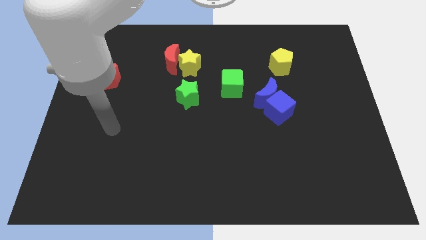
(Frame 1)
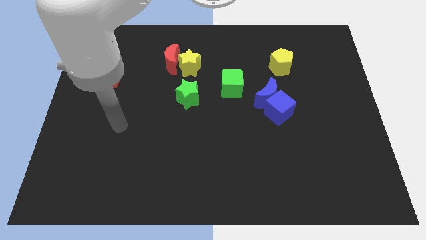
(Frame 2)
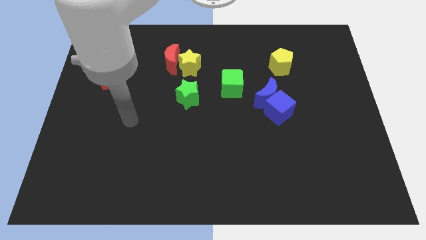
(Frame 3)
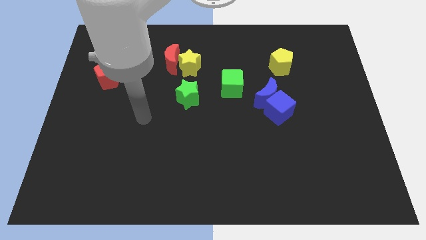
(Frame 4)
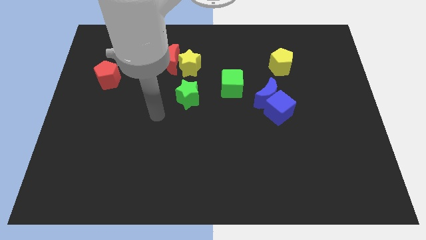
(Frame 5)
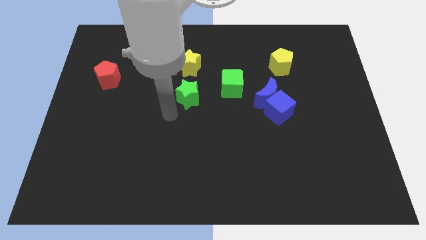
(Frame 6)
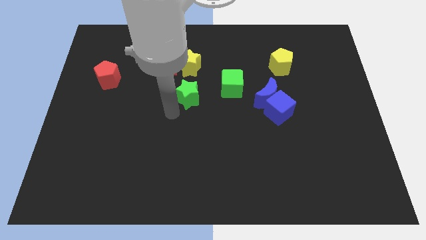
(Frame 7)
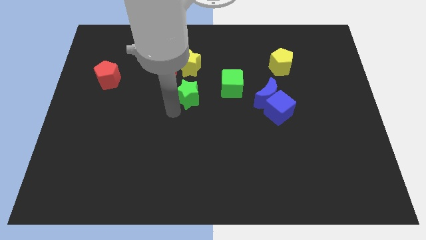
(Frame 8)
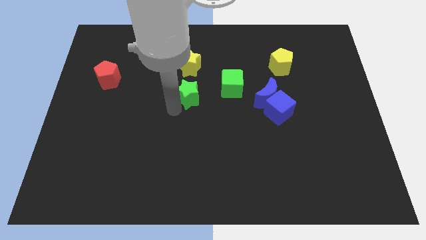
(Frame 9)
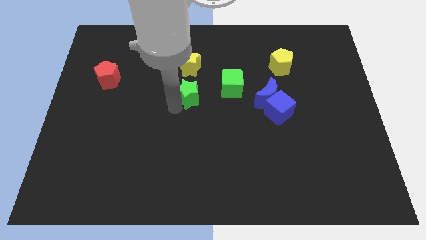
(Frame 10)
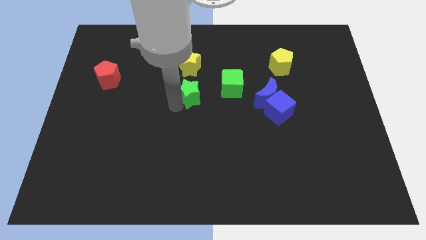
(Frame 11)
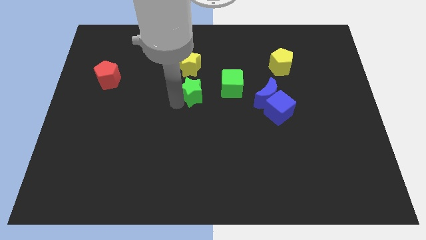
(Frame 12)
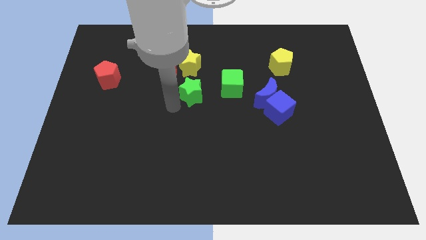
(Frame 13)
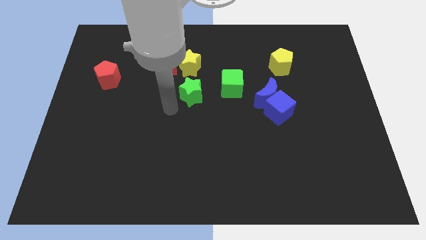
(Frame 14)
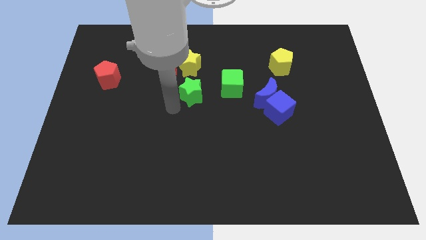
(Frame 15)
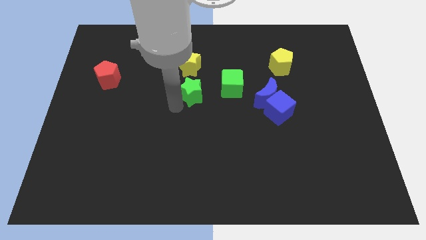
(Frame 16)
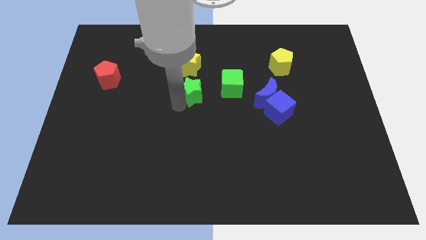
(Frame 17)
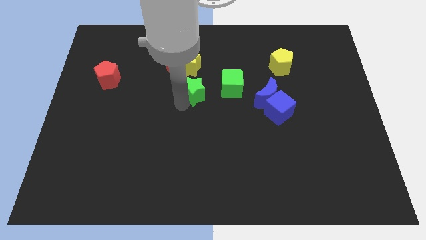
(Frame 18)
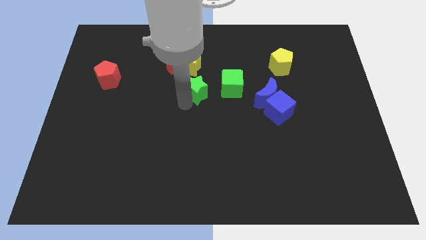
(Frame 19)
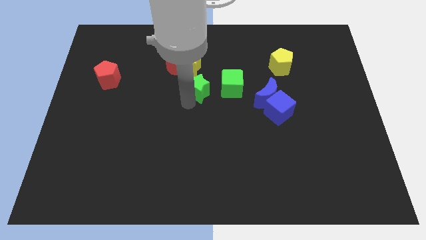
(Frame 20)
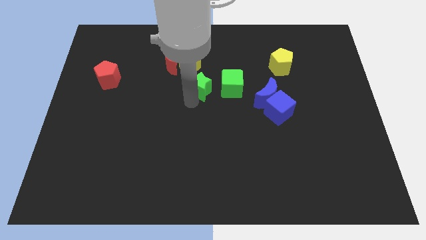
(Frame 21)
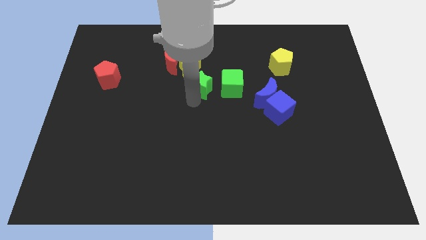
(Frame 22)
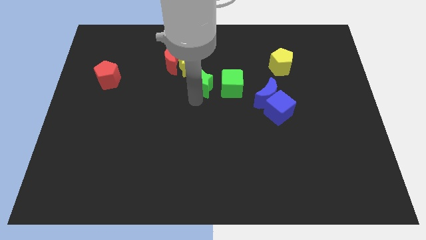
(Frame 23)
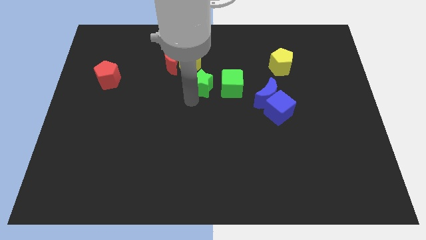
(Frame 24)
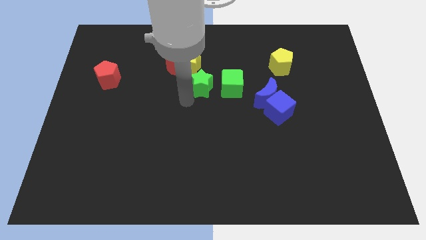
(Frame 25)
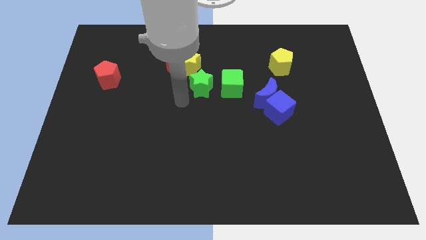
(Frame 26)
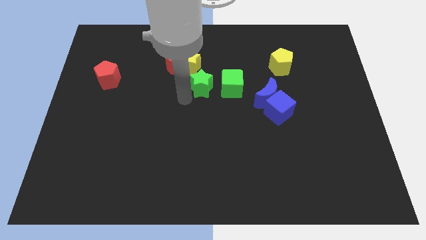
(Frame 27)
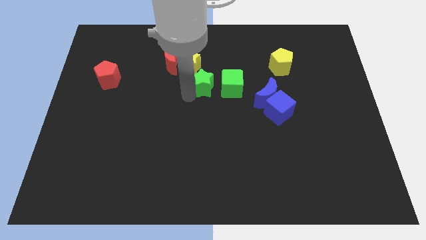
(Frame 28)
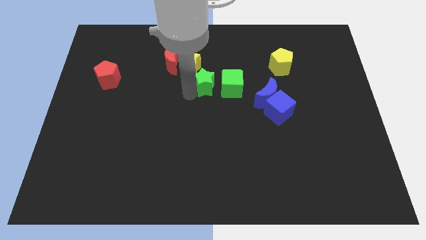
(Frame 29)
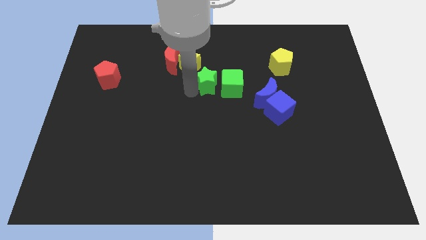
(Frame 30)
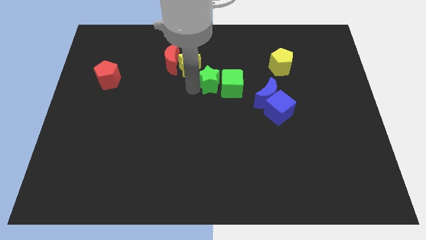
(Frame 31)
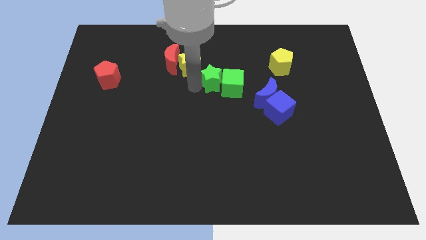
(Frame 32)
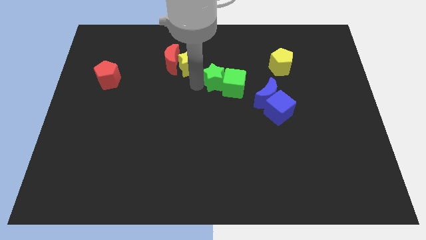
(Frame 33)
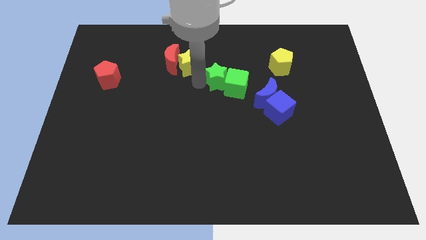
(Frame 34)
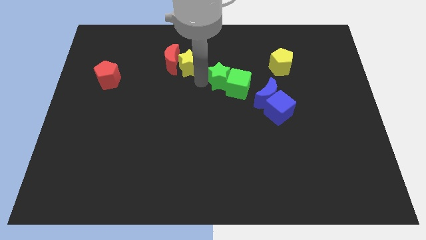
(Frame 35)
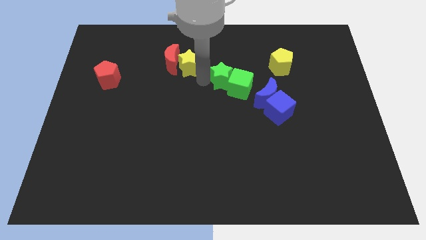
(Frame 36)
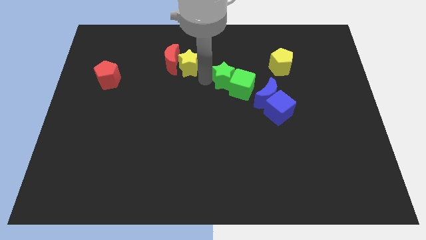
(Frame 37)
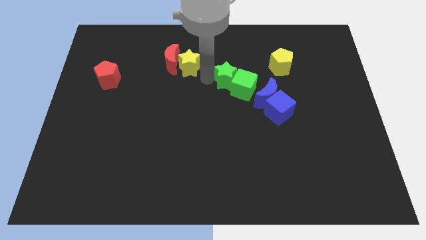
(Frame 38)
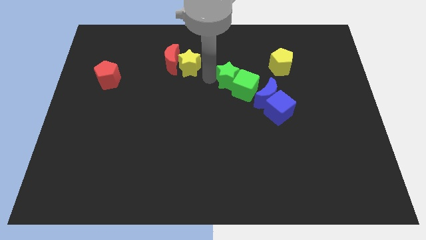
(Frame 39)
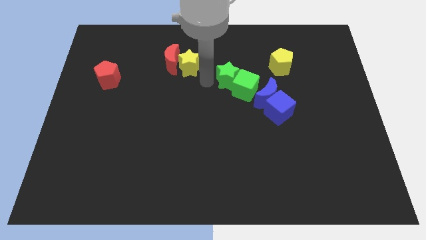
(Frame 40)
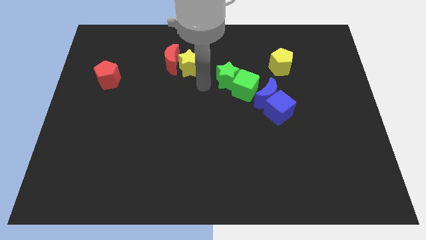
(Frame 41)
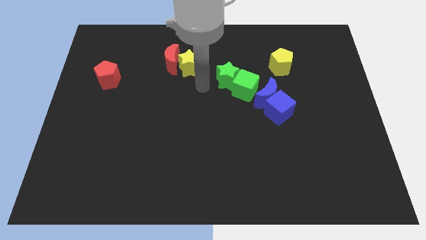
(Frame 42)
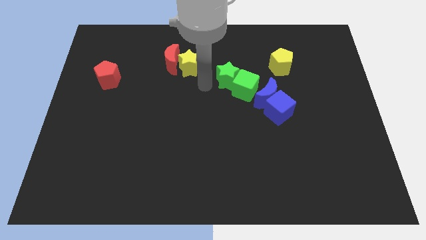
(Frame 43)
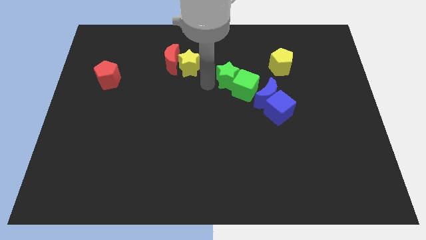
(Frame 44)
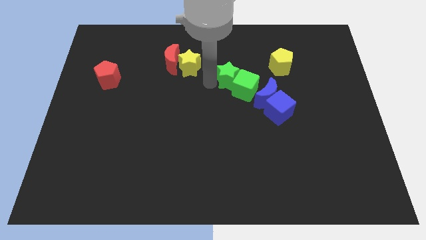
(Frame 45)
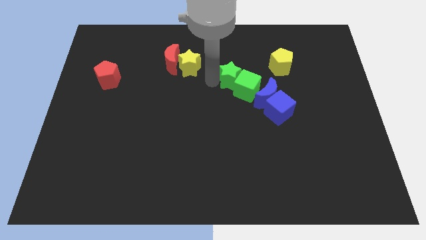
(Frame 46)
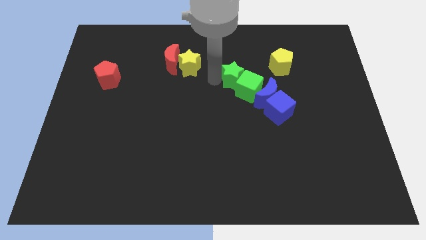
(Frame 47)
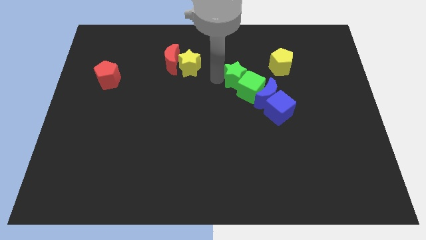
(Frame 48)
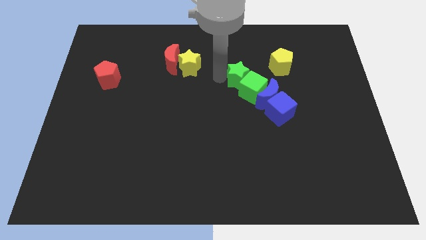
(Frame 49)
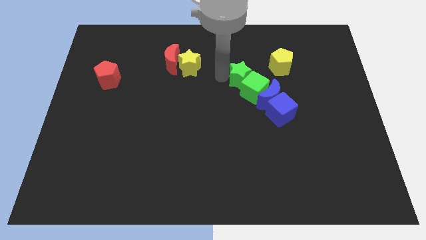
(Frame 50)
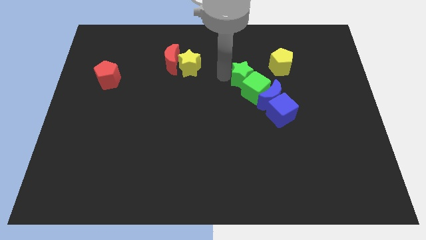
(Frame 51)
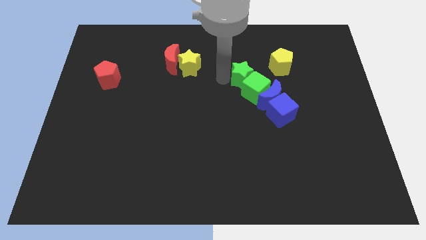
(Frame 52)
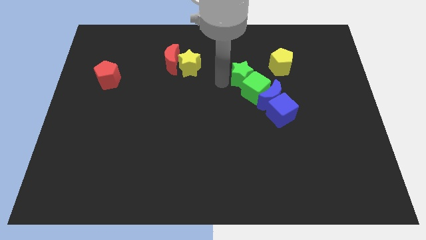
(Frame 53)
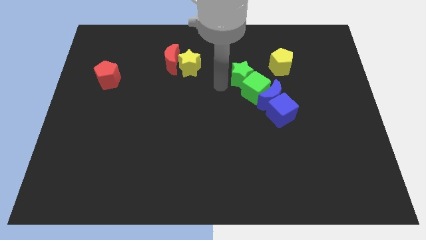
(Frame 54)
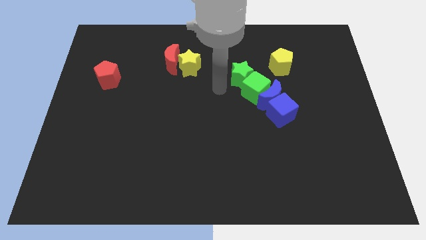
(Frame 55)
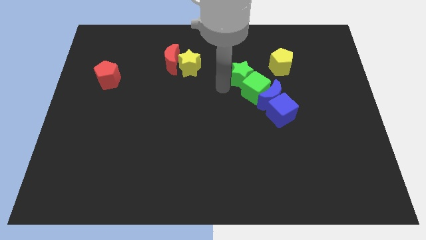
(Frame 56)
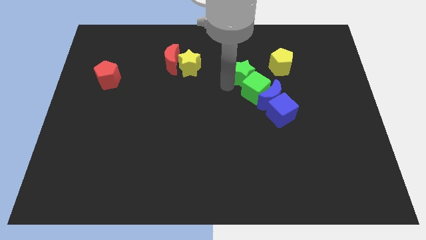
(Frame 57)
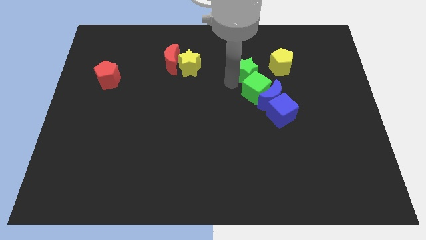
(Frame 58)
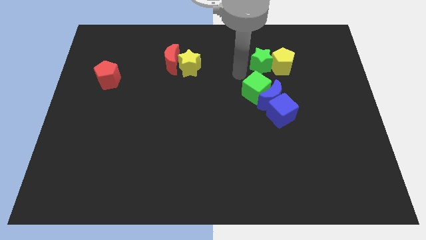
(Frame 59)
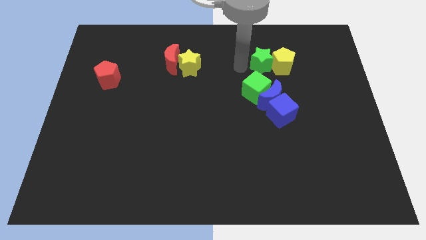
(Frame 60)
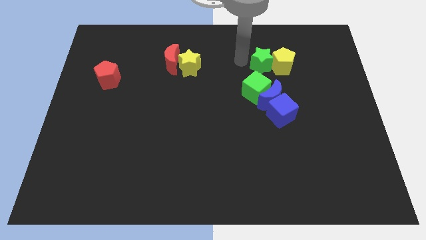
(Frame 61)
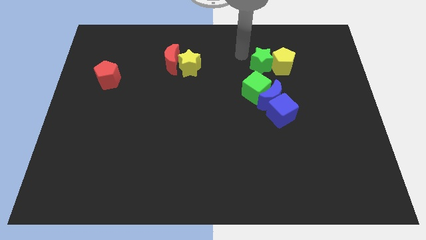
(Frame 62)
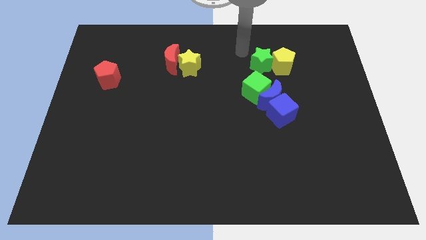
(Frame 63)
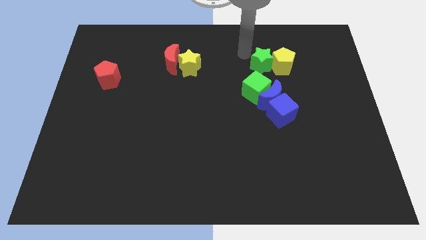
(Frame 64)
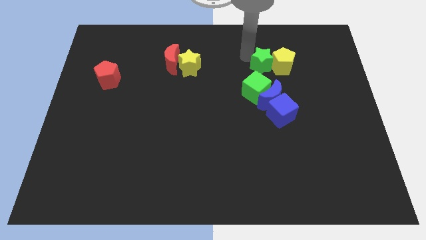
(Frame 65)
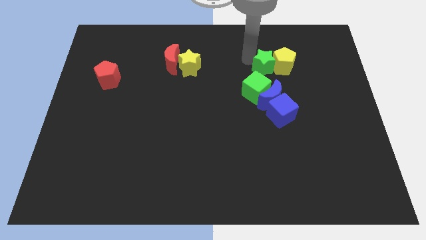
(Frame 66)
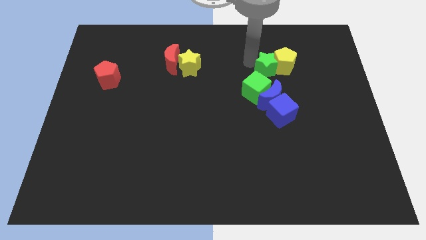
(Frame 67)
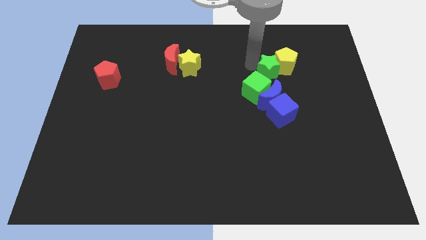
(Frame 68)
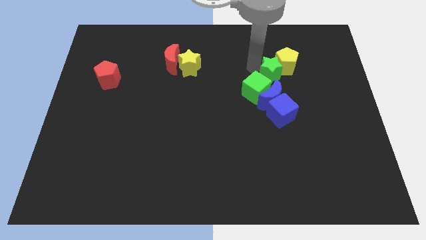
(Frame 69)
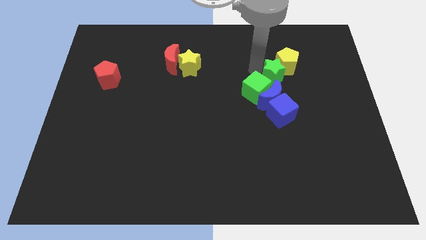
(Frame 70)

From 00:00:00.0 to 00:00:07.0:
move the green star just right of the green cube

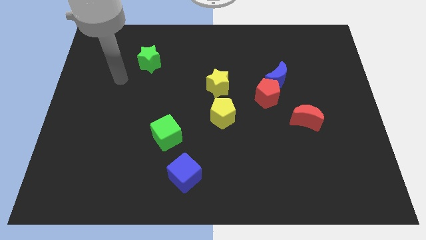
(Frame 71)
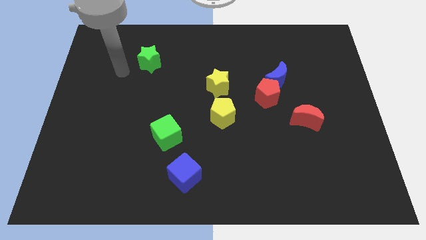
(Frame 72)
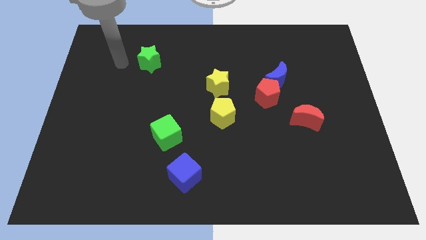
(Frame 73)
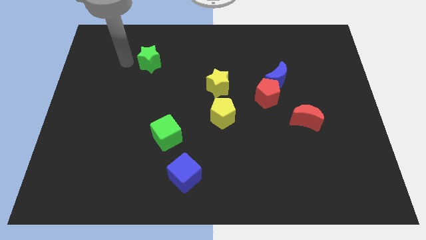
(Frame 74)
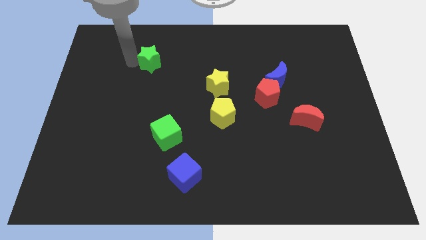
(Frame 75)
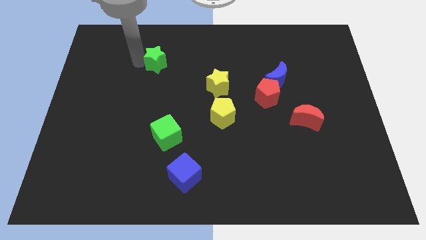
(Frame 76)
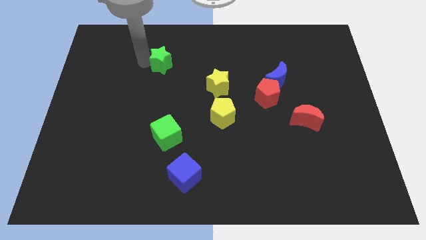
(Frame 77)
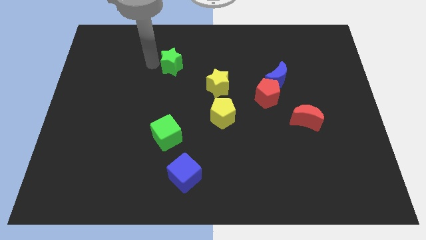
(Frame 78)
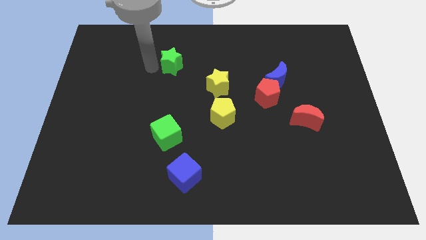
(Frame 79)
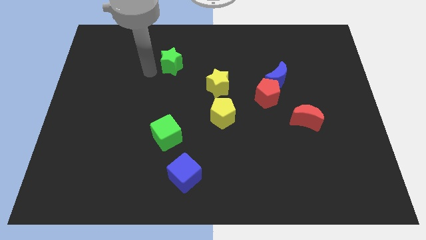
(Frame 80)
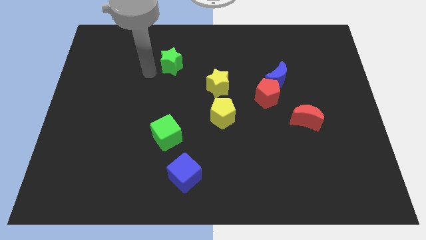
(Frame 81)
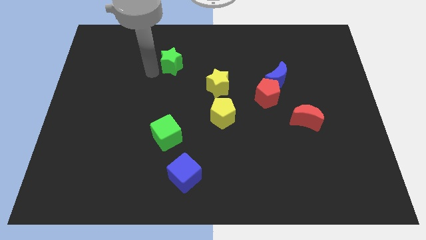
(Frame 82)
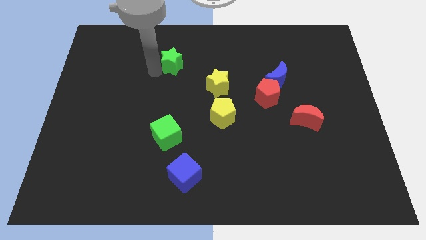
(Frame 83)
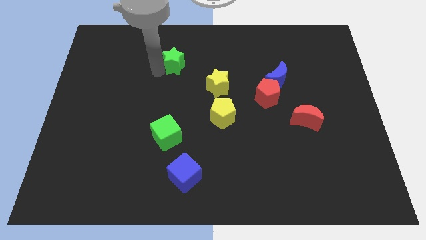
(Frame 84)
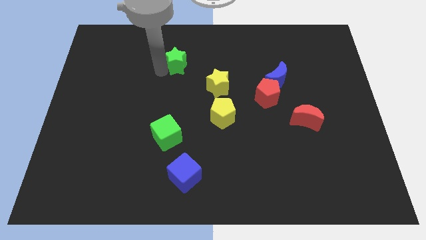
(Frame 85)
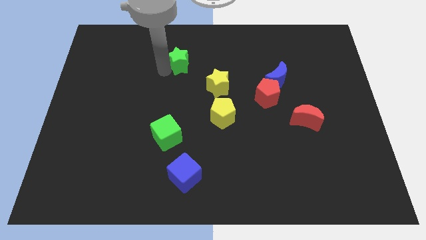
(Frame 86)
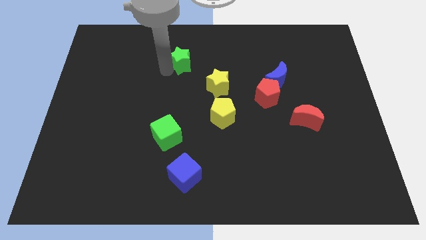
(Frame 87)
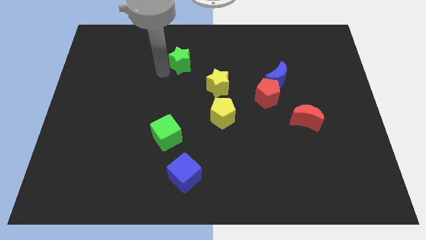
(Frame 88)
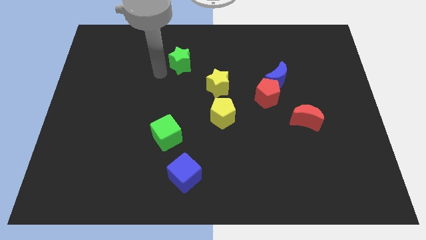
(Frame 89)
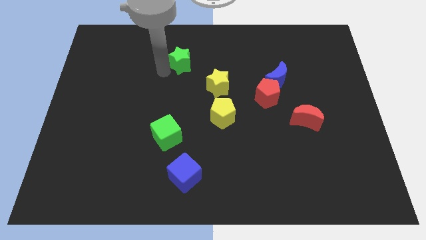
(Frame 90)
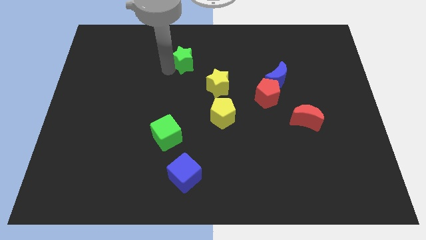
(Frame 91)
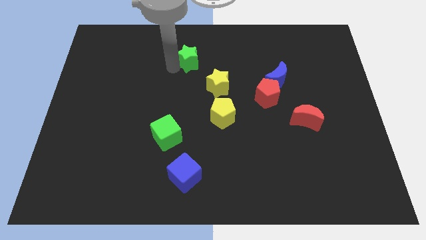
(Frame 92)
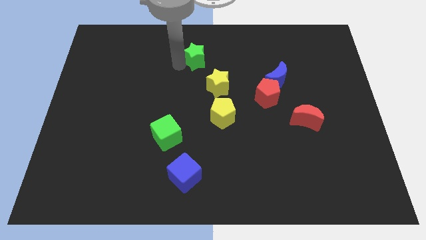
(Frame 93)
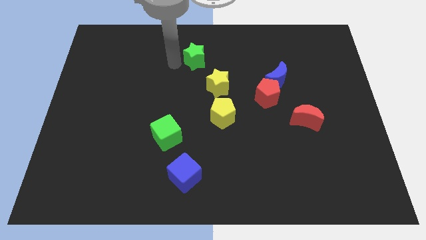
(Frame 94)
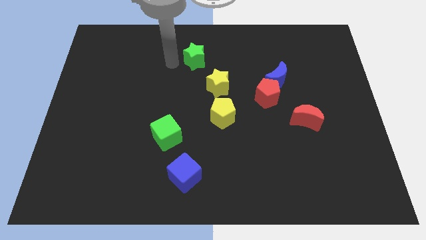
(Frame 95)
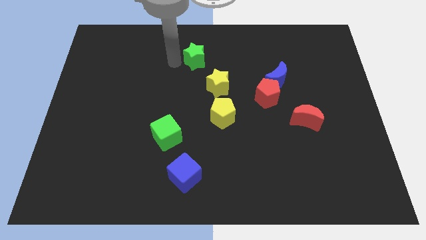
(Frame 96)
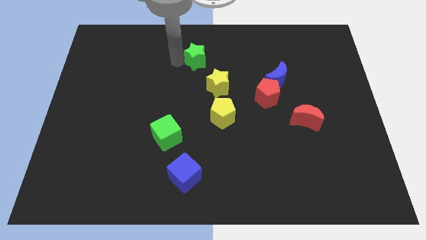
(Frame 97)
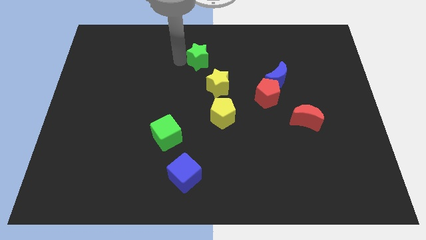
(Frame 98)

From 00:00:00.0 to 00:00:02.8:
put the green star to the top of the yellow star
